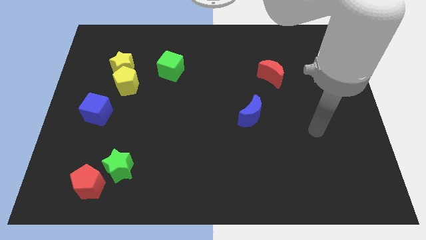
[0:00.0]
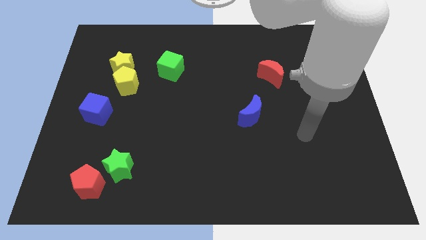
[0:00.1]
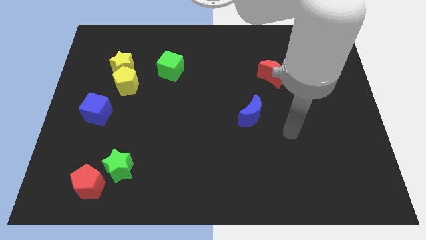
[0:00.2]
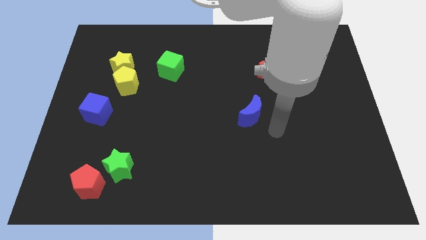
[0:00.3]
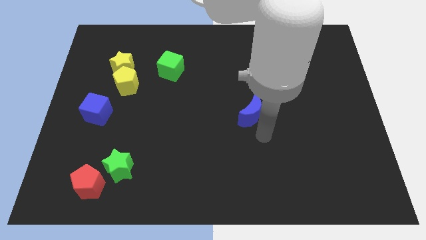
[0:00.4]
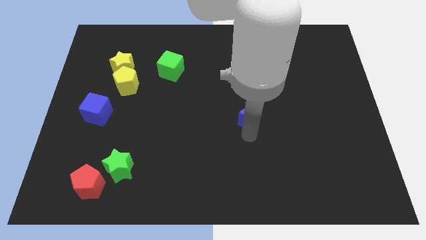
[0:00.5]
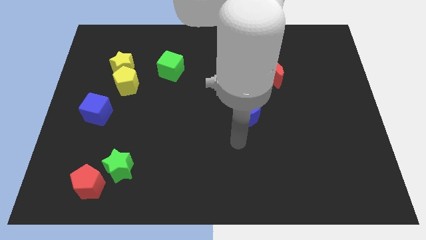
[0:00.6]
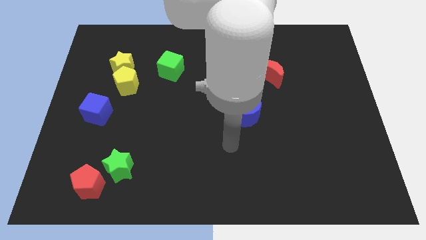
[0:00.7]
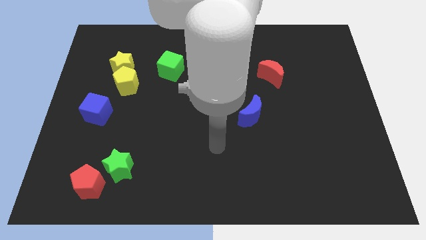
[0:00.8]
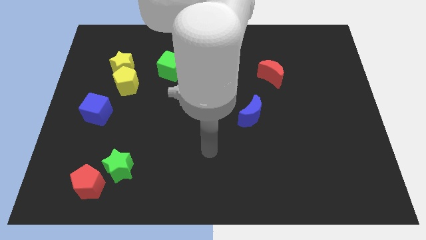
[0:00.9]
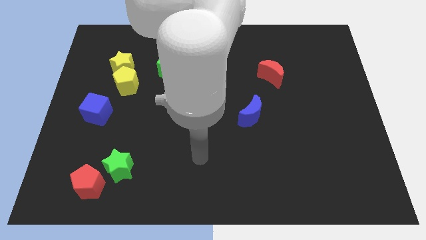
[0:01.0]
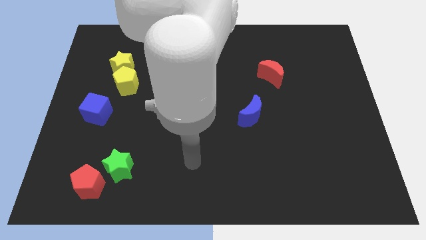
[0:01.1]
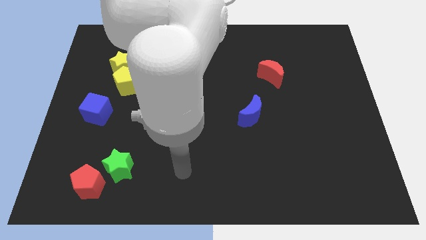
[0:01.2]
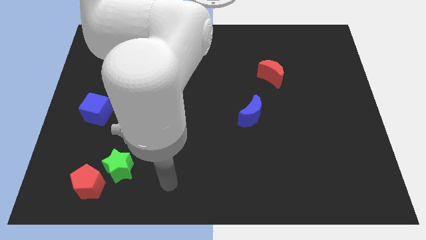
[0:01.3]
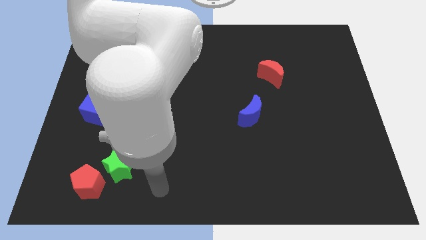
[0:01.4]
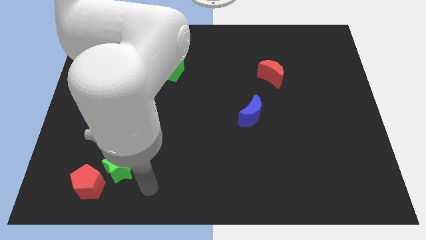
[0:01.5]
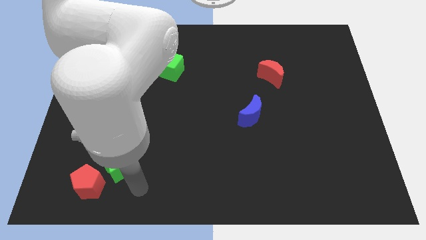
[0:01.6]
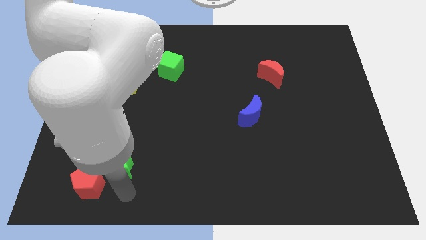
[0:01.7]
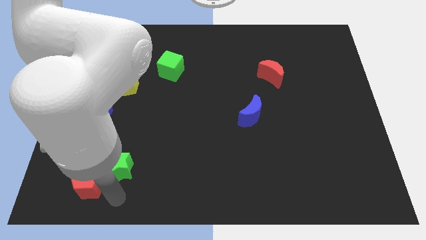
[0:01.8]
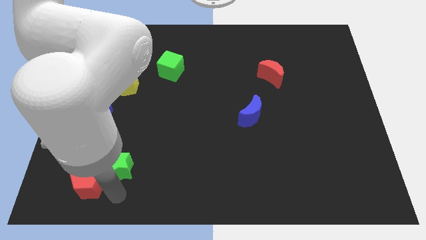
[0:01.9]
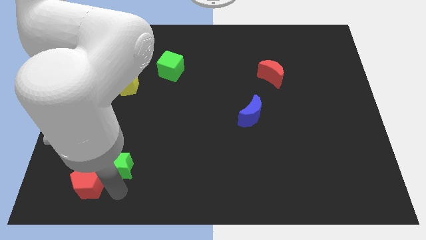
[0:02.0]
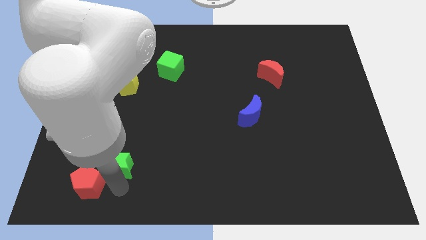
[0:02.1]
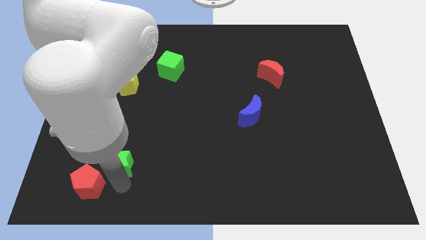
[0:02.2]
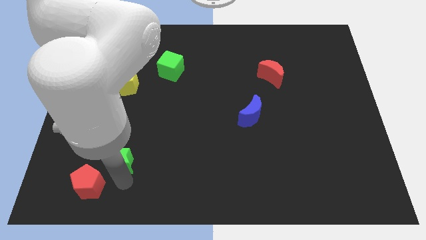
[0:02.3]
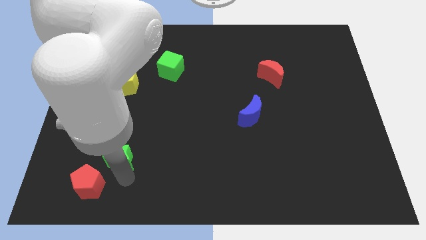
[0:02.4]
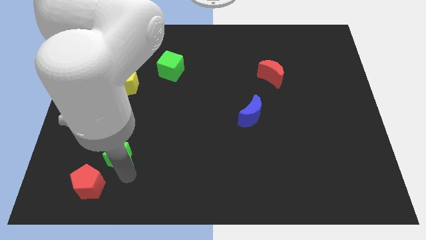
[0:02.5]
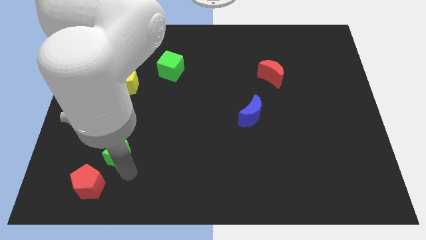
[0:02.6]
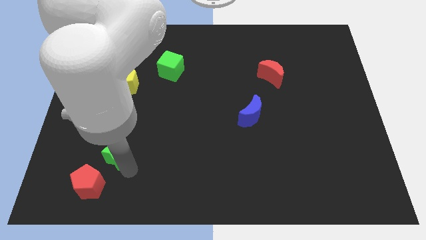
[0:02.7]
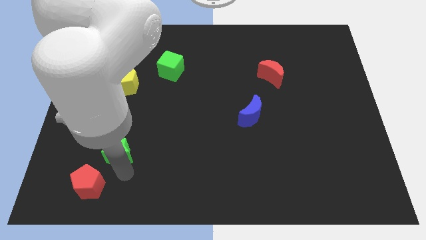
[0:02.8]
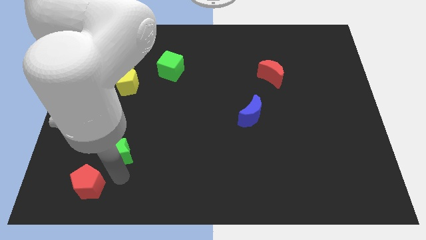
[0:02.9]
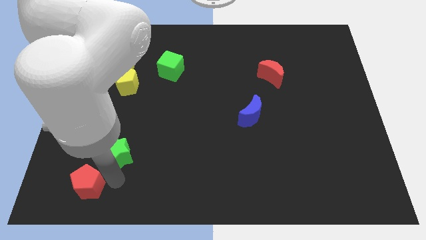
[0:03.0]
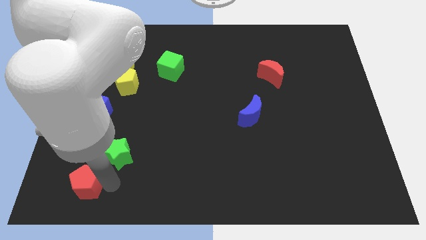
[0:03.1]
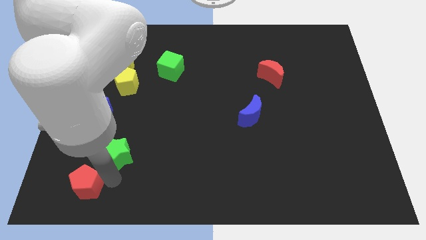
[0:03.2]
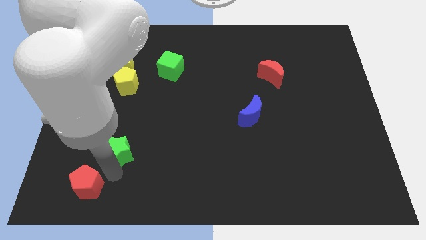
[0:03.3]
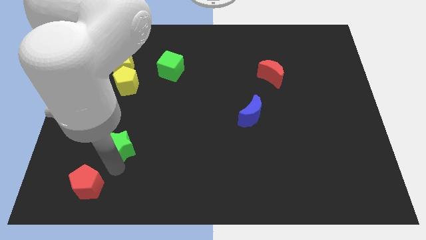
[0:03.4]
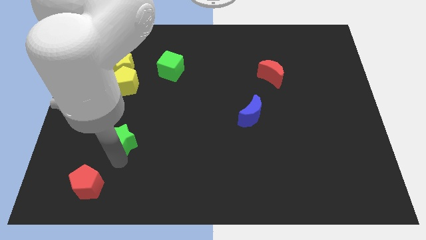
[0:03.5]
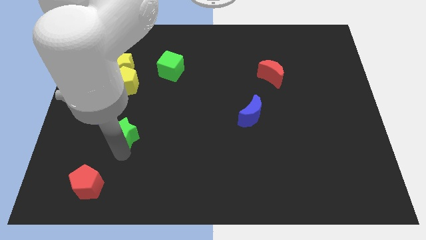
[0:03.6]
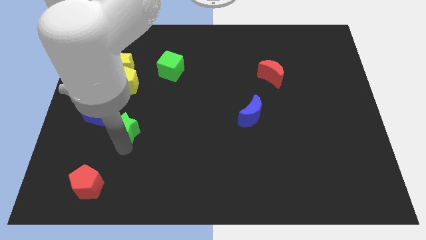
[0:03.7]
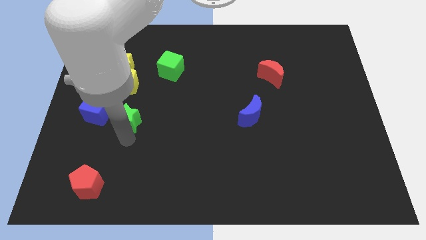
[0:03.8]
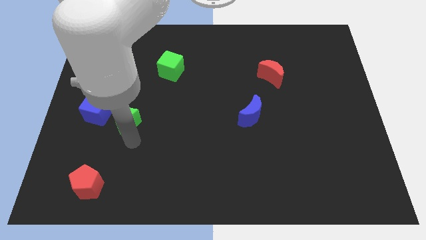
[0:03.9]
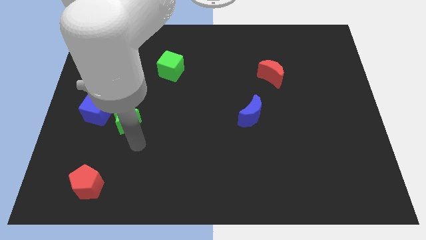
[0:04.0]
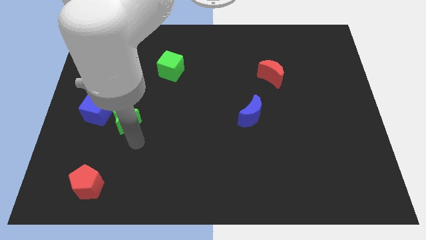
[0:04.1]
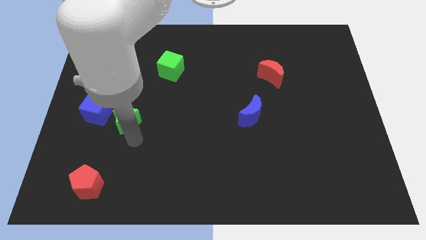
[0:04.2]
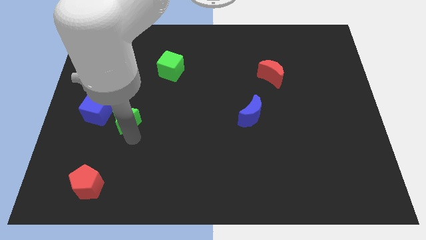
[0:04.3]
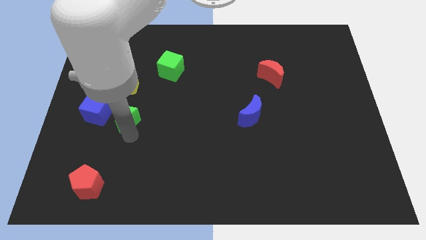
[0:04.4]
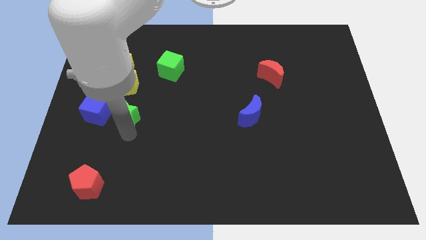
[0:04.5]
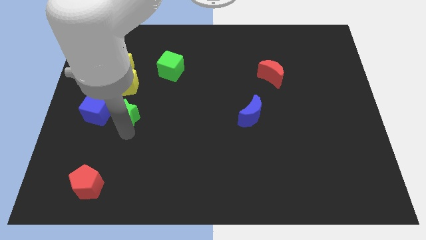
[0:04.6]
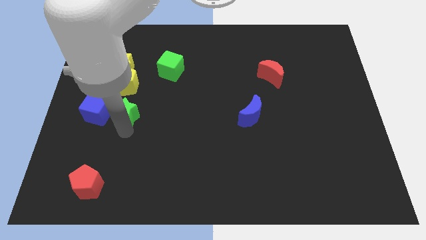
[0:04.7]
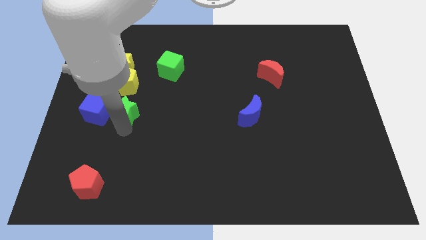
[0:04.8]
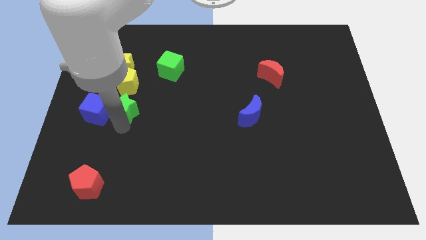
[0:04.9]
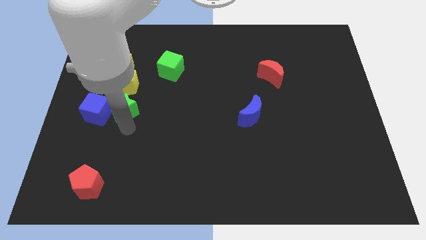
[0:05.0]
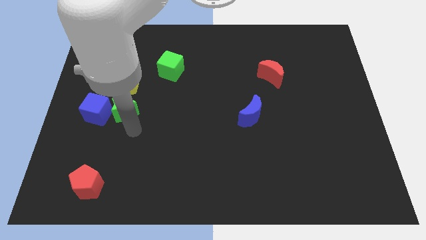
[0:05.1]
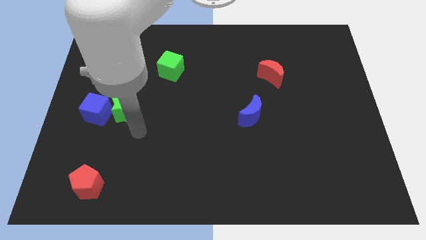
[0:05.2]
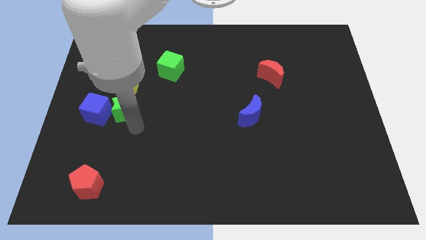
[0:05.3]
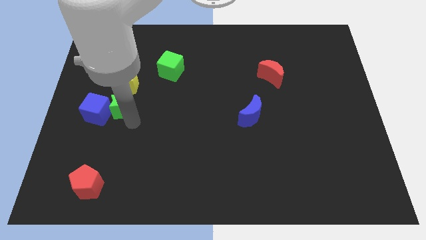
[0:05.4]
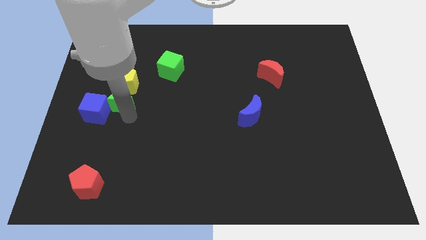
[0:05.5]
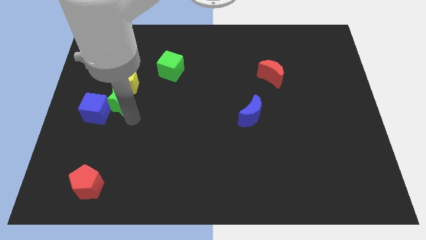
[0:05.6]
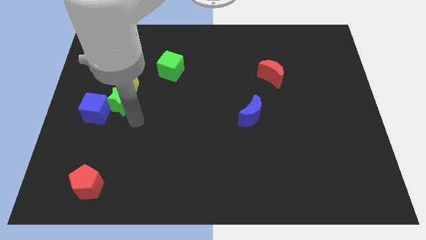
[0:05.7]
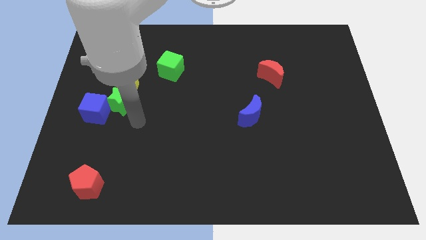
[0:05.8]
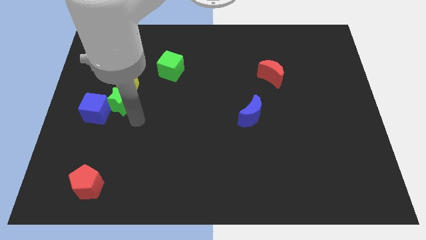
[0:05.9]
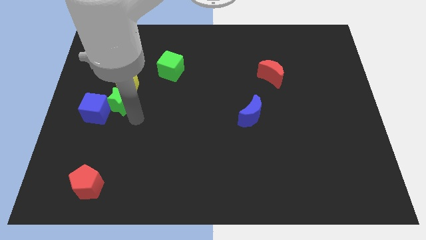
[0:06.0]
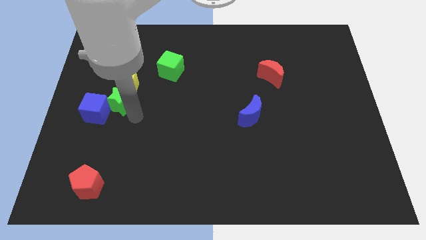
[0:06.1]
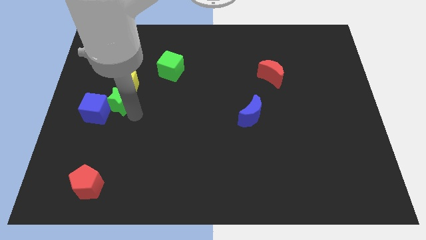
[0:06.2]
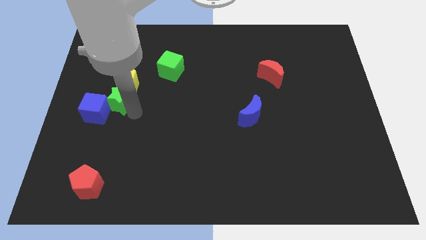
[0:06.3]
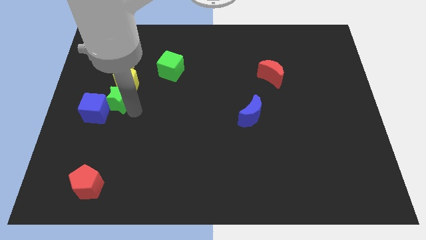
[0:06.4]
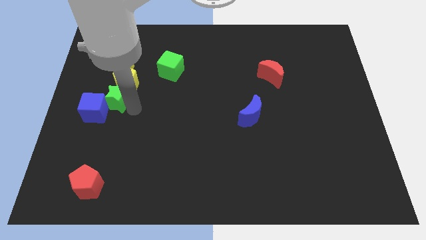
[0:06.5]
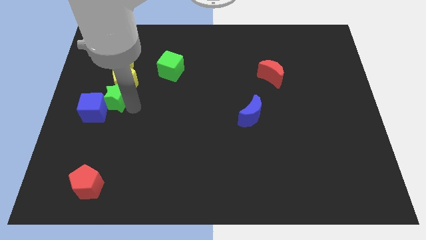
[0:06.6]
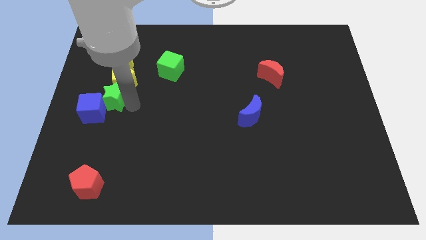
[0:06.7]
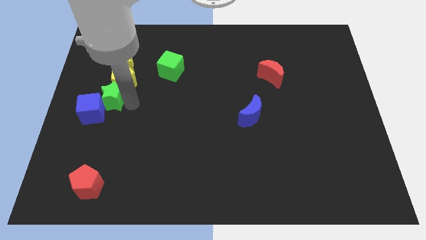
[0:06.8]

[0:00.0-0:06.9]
slide the green star to the top side of the blue cube
